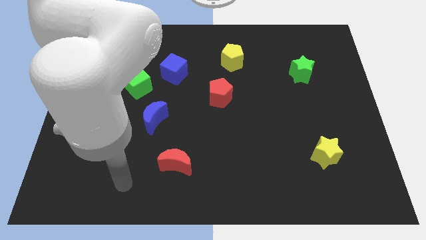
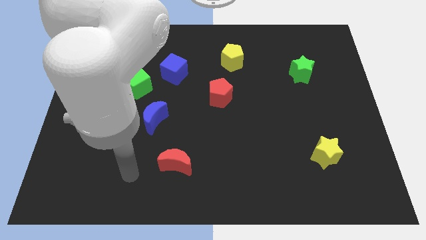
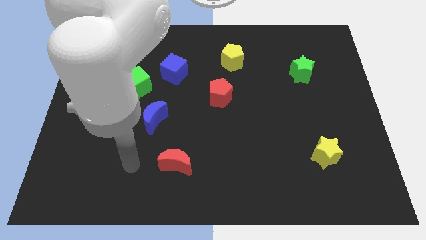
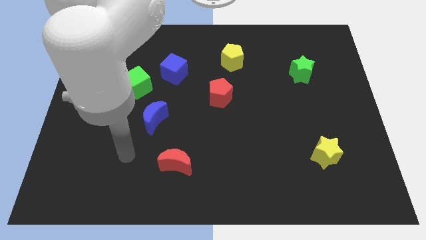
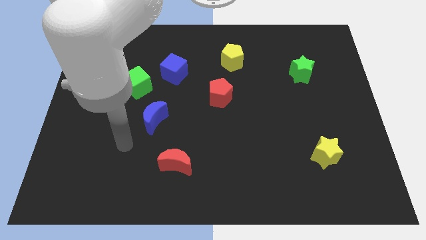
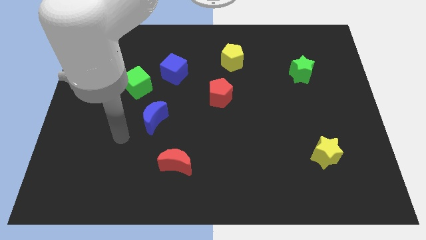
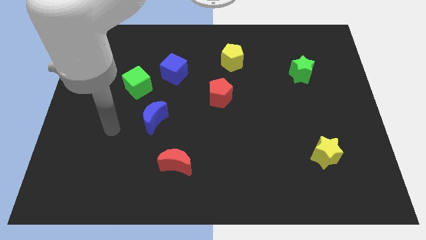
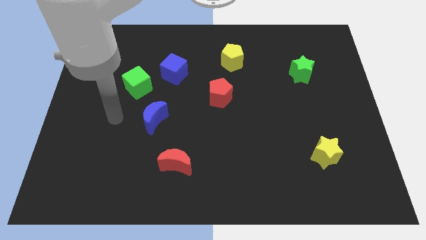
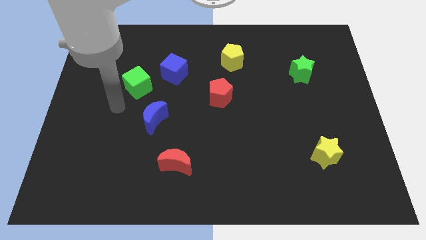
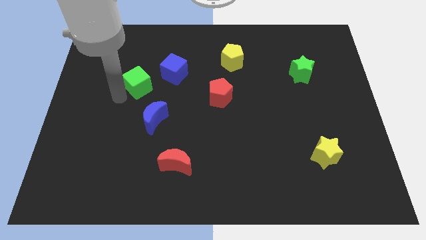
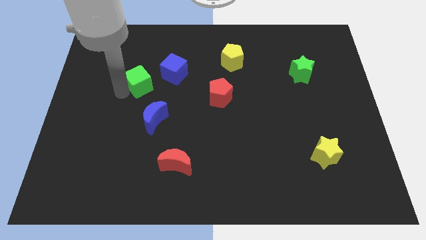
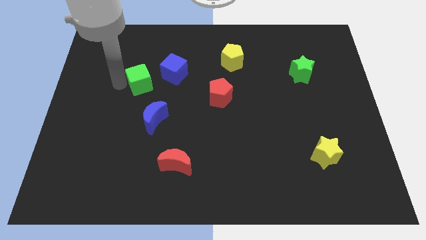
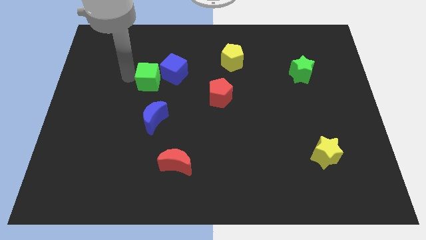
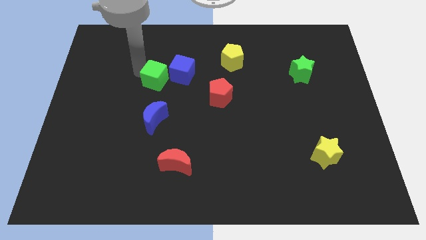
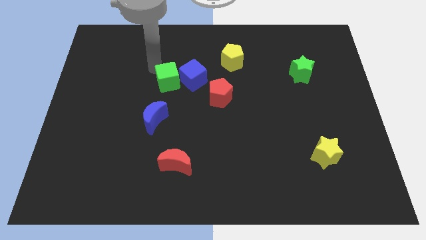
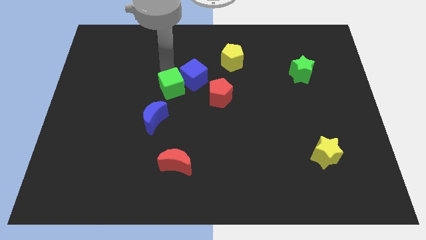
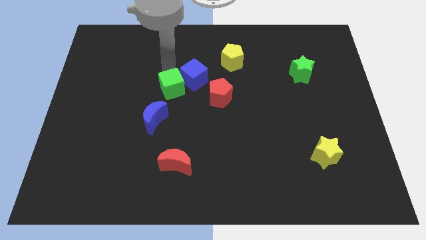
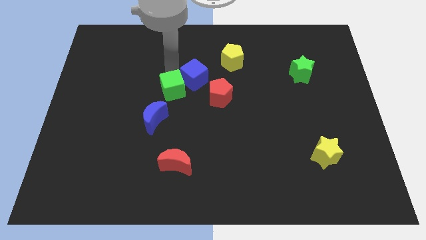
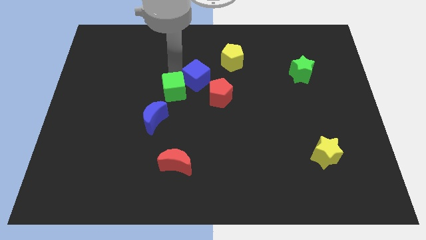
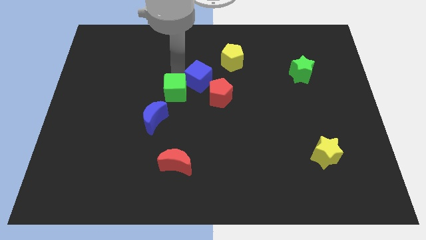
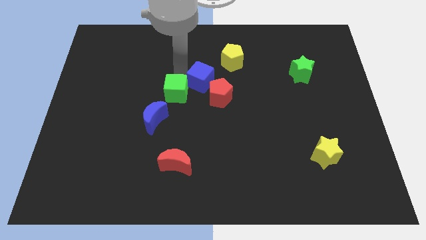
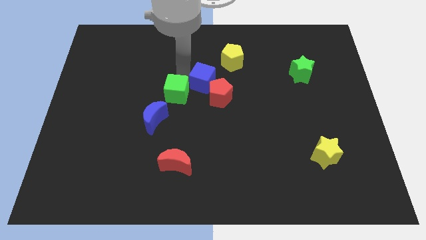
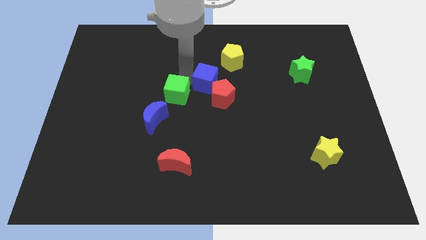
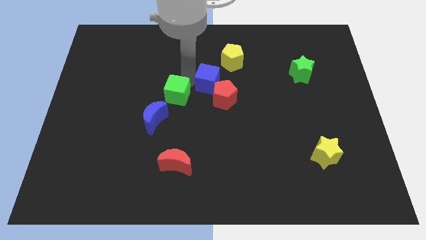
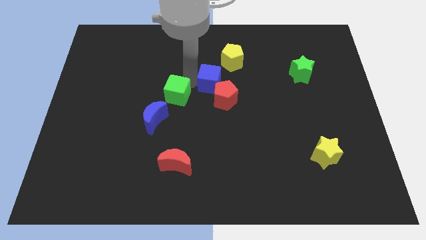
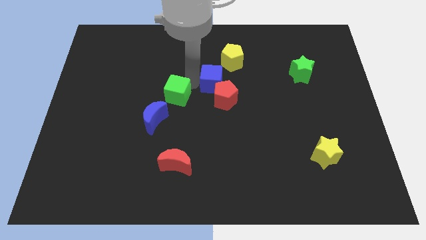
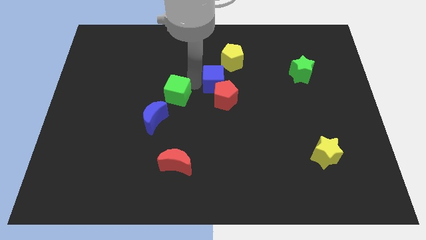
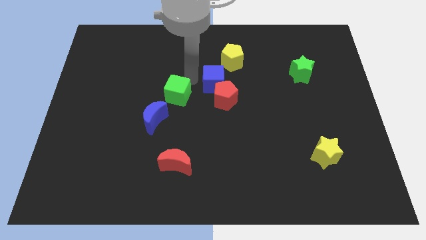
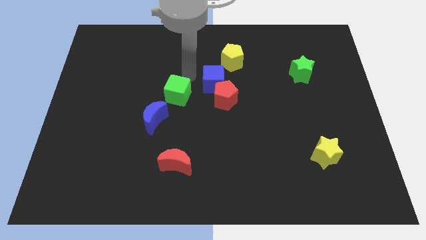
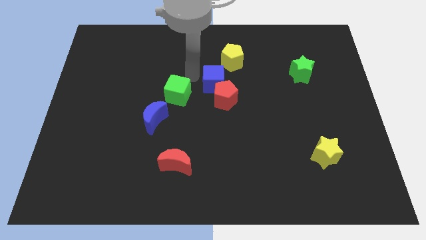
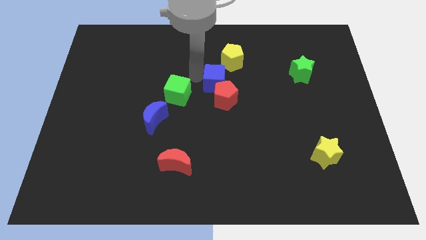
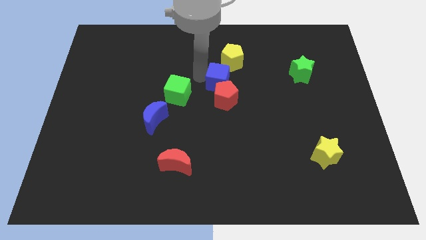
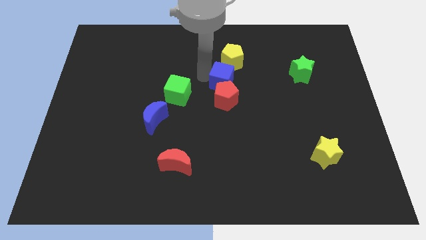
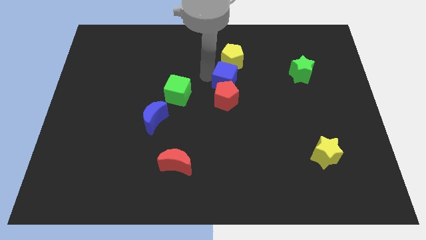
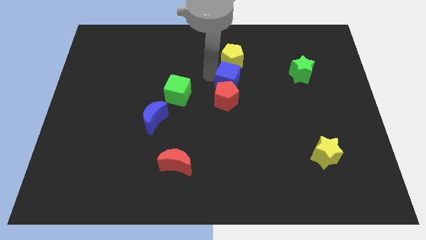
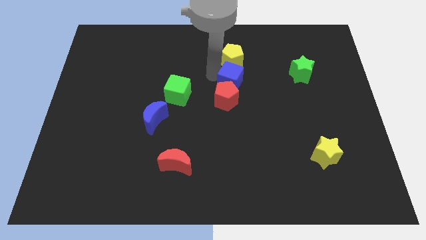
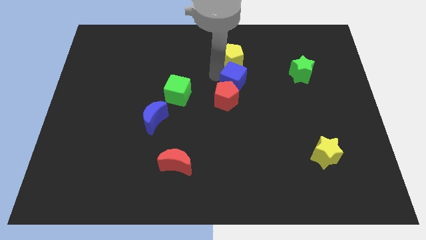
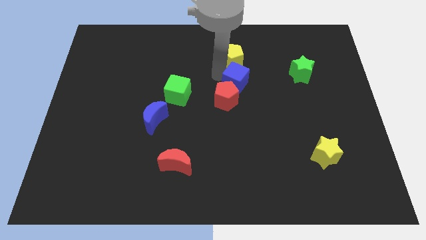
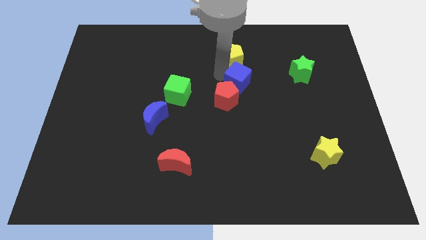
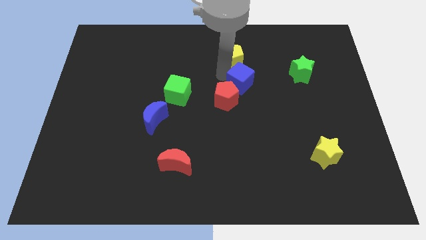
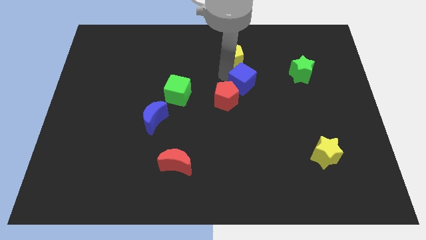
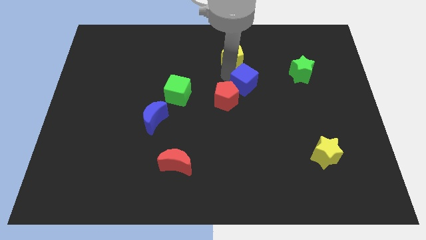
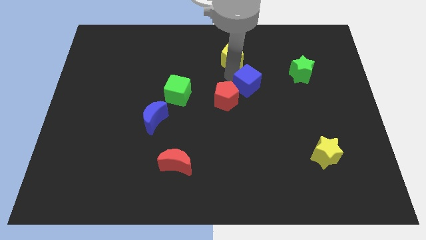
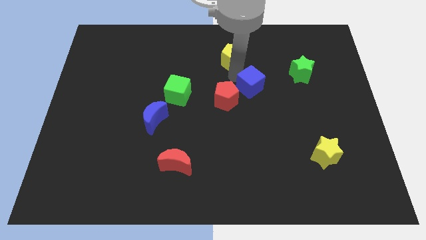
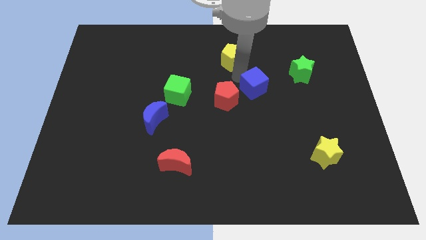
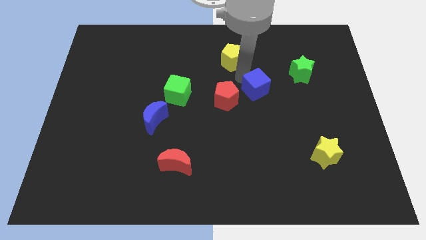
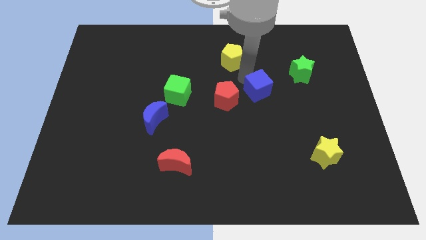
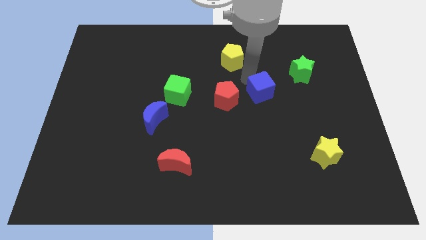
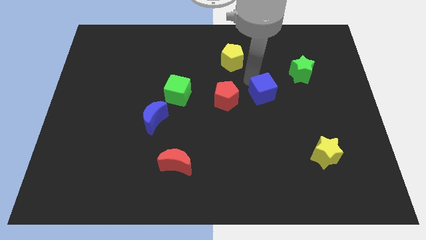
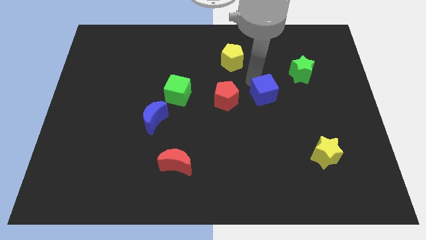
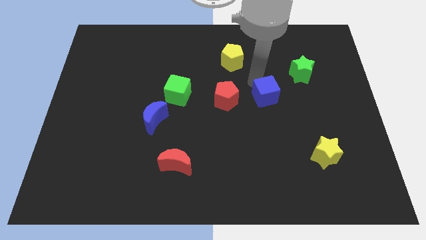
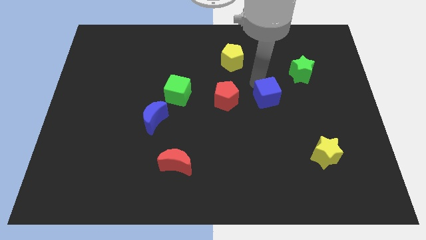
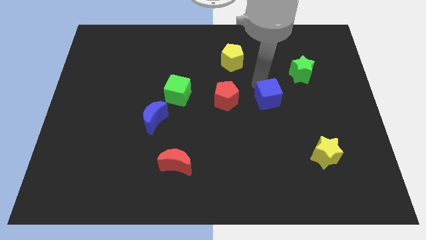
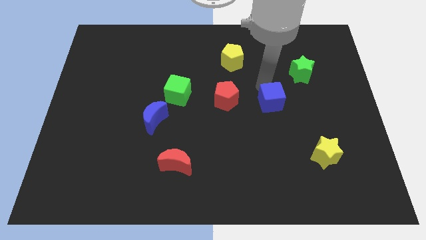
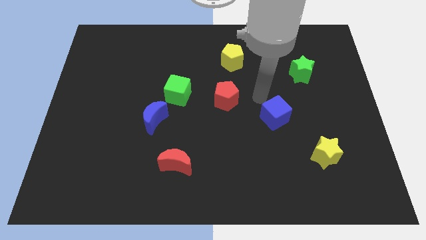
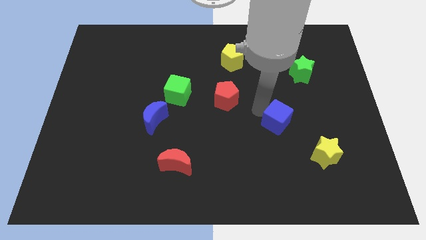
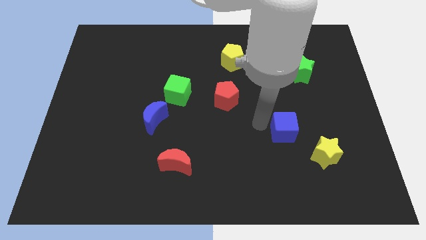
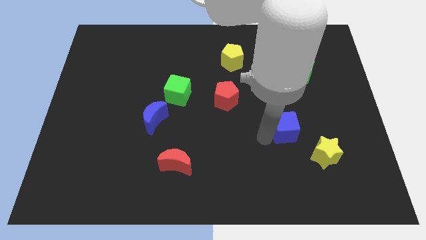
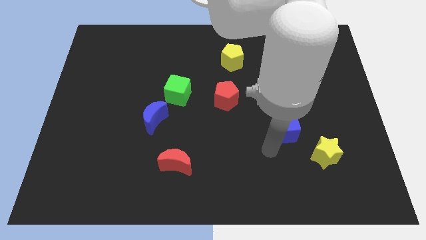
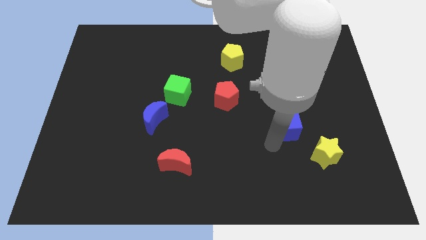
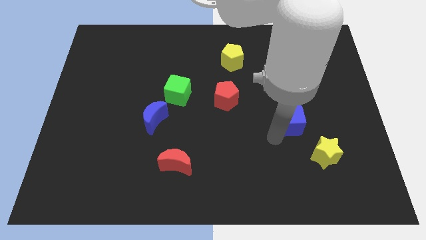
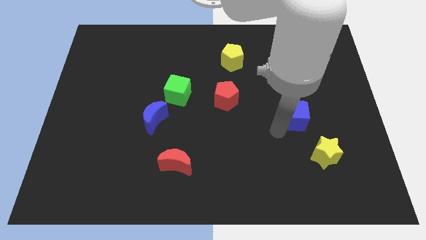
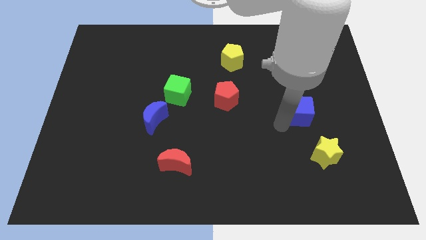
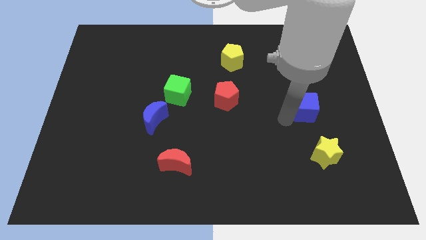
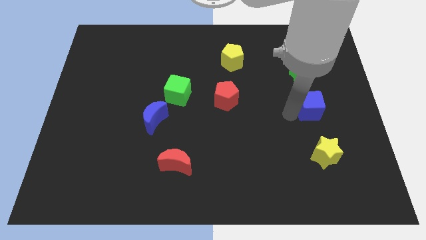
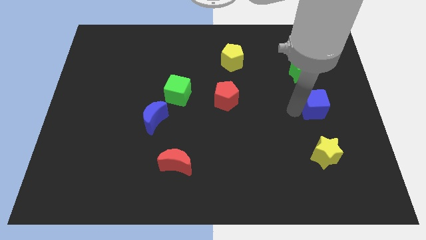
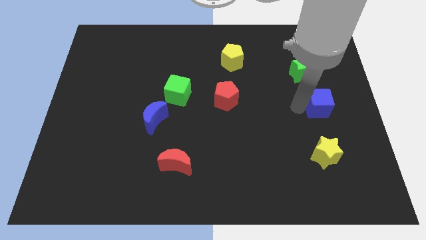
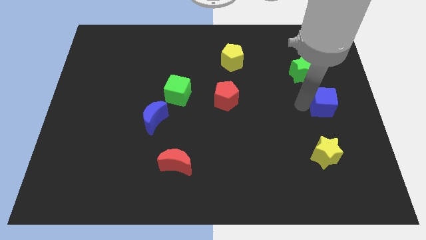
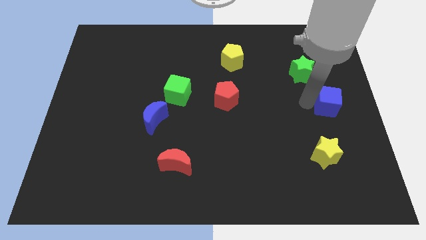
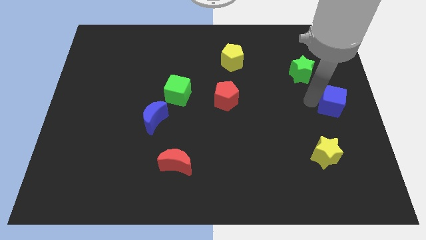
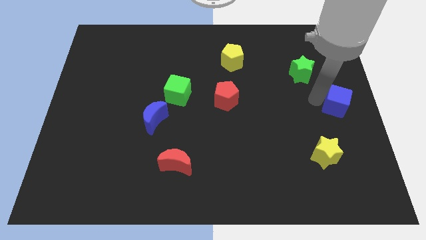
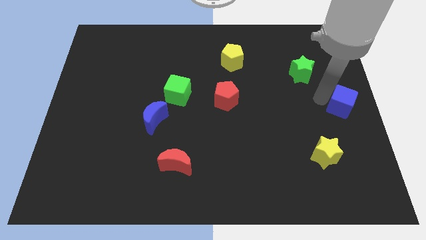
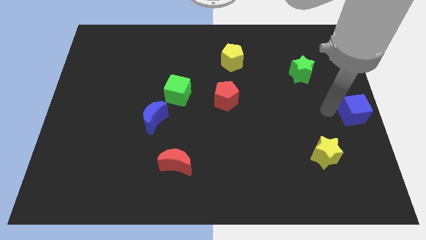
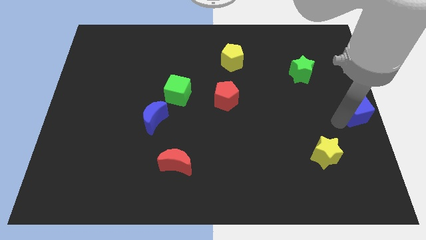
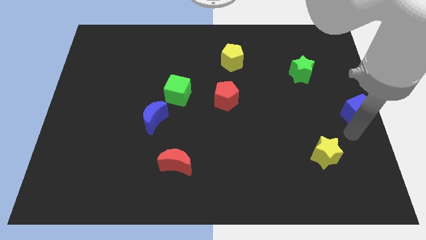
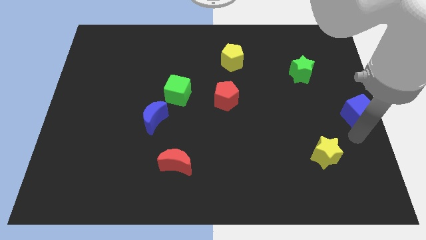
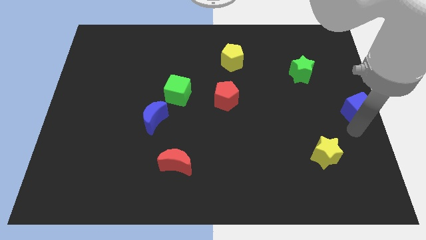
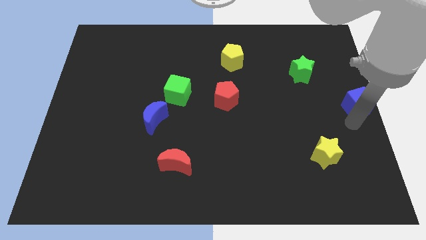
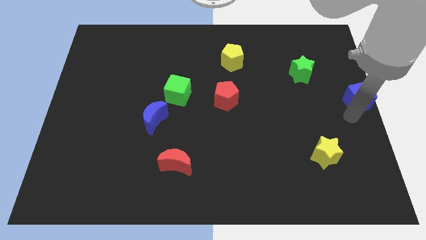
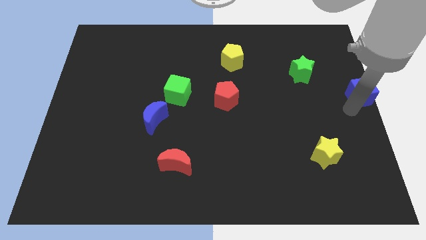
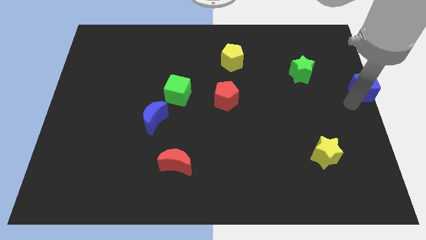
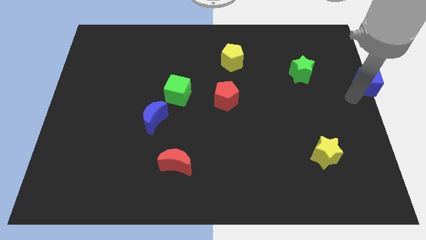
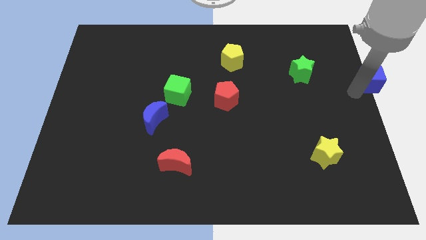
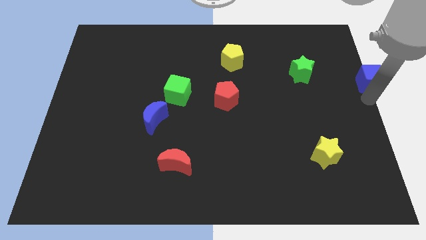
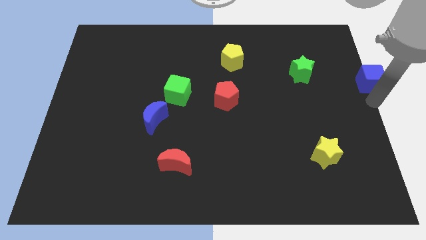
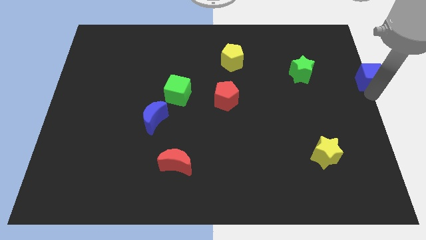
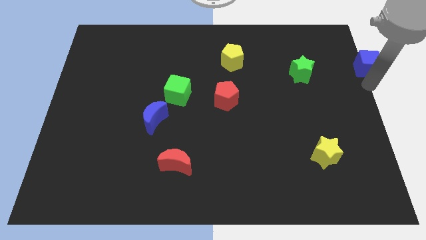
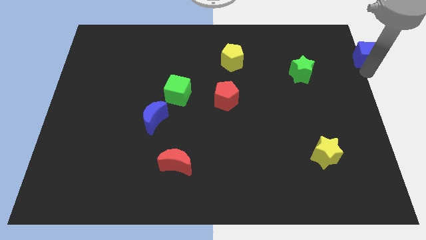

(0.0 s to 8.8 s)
move the blue cube to the top right of the board
